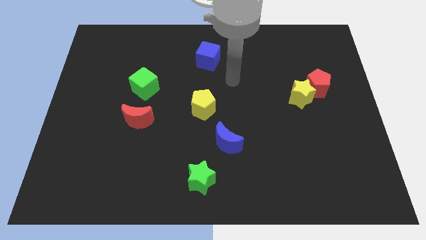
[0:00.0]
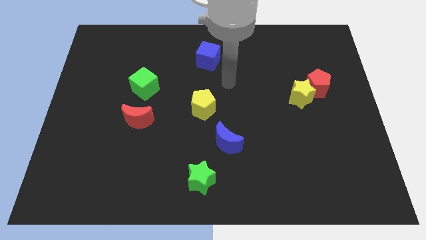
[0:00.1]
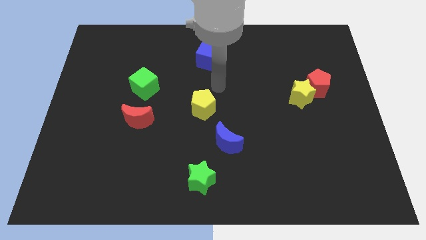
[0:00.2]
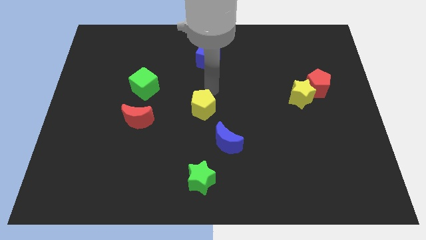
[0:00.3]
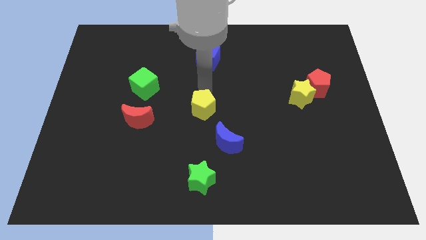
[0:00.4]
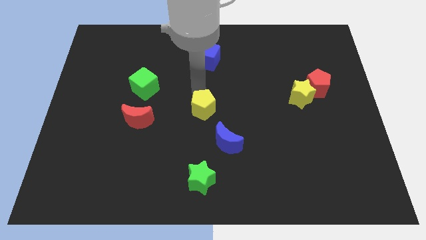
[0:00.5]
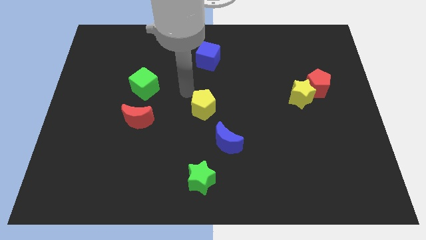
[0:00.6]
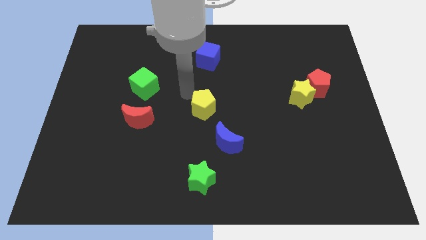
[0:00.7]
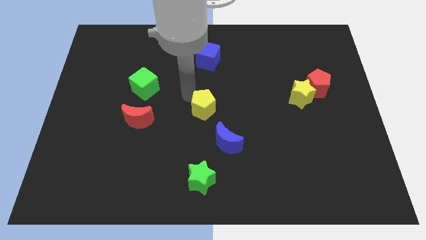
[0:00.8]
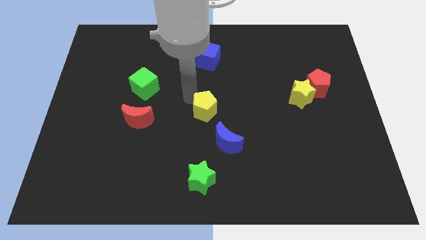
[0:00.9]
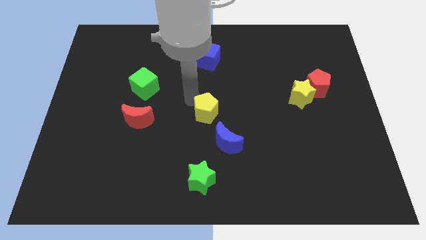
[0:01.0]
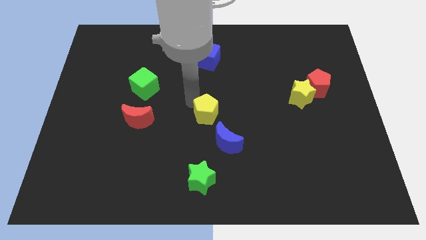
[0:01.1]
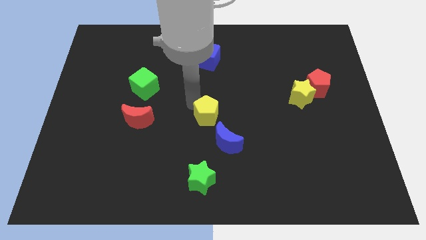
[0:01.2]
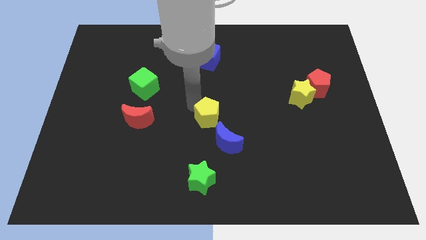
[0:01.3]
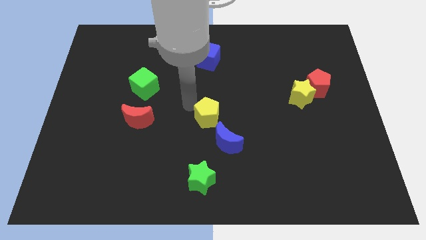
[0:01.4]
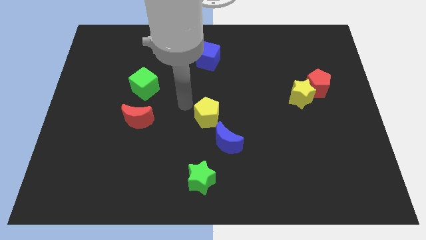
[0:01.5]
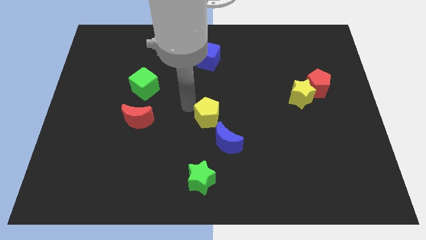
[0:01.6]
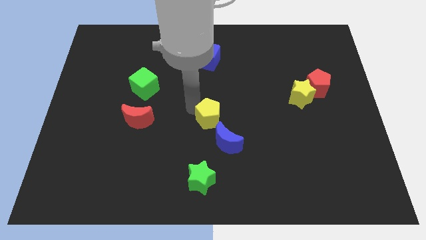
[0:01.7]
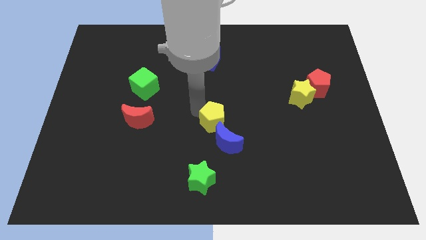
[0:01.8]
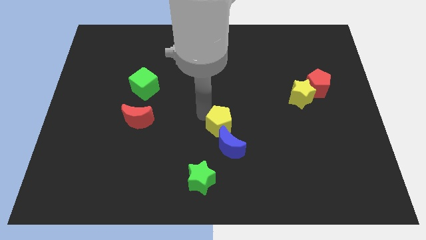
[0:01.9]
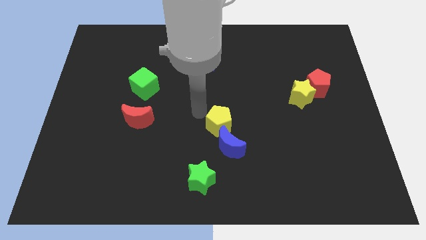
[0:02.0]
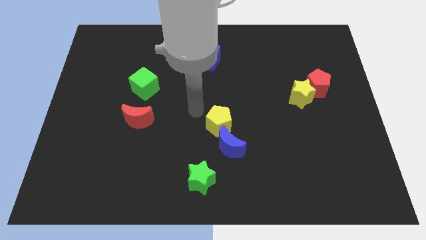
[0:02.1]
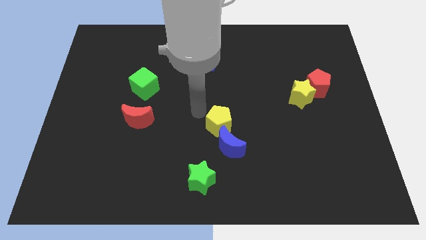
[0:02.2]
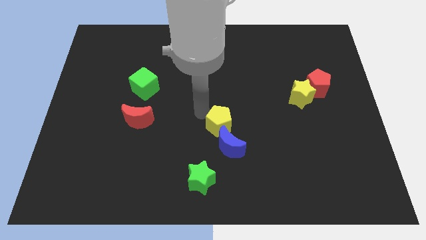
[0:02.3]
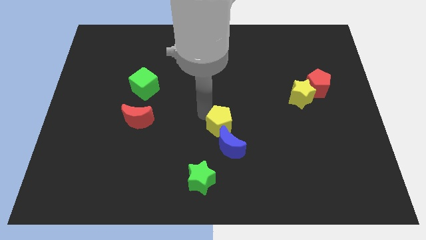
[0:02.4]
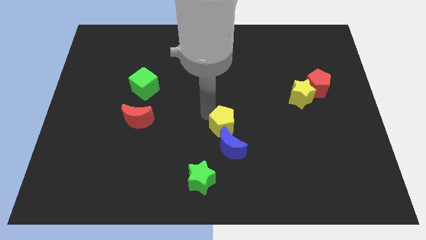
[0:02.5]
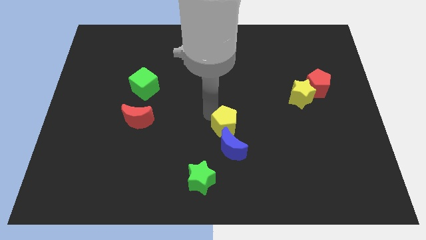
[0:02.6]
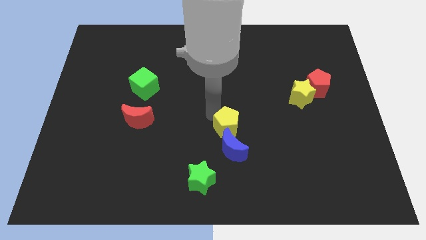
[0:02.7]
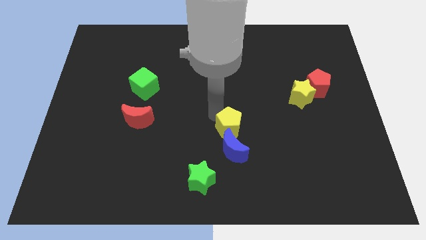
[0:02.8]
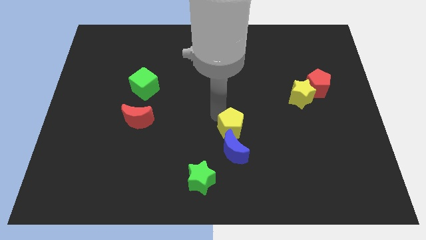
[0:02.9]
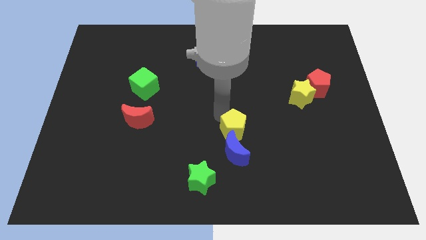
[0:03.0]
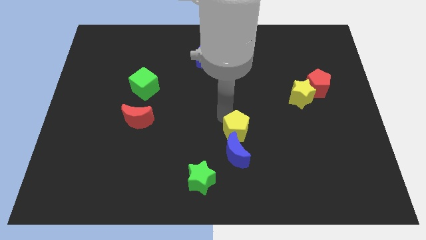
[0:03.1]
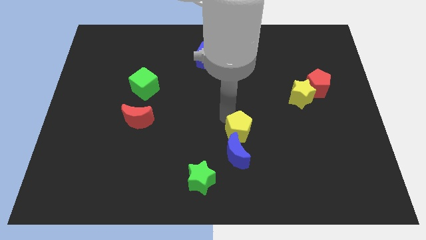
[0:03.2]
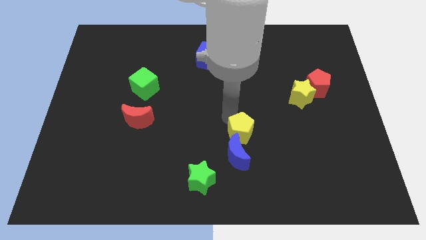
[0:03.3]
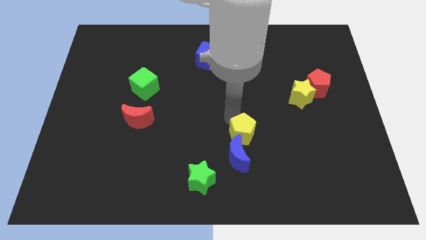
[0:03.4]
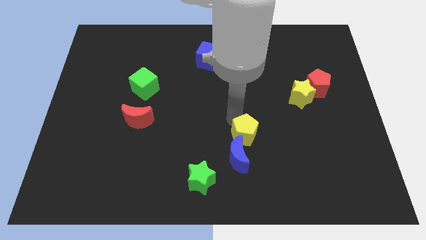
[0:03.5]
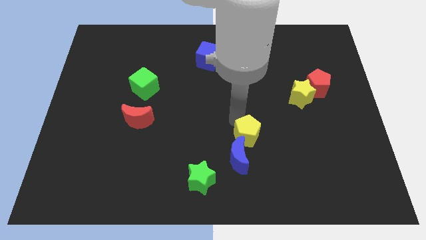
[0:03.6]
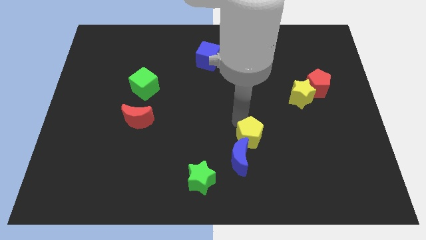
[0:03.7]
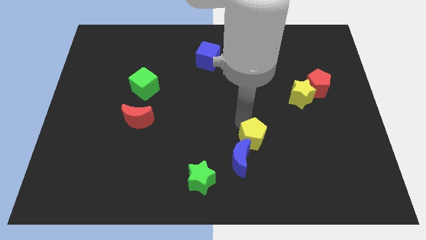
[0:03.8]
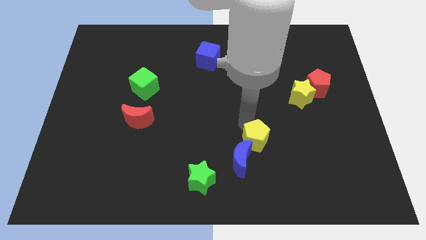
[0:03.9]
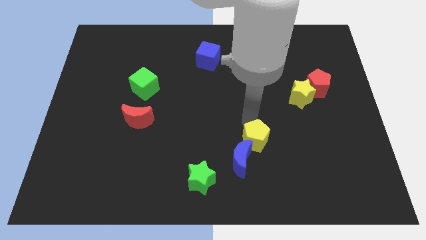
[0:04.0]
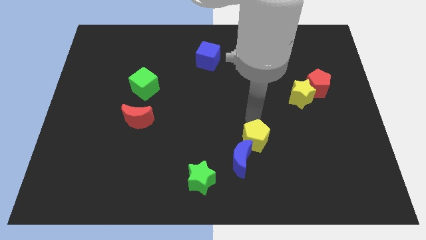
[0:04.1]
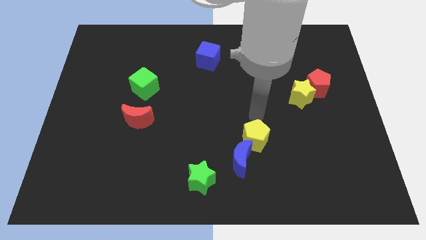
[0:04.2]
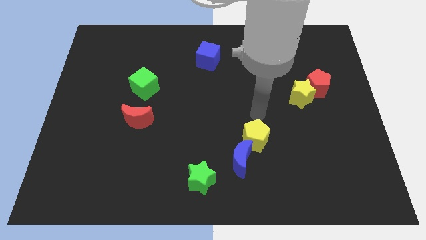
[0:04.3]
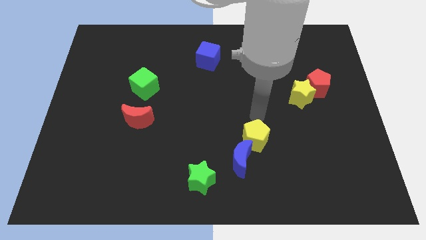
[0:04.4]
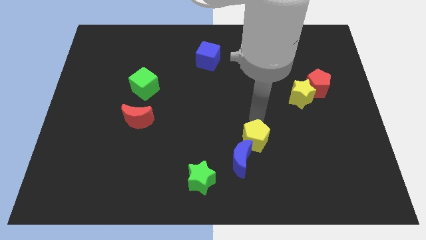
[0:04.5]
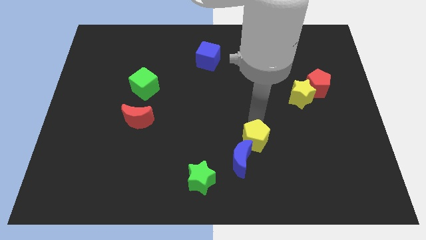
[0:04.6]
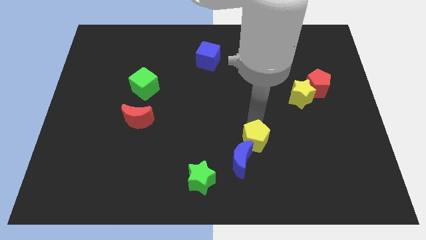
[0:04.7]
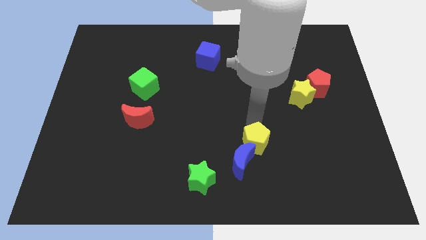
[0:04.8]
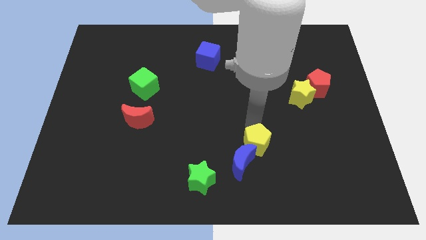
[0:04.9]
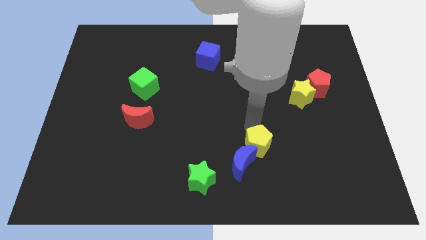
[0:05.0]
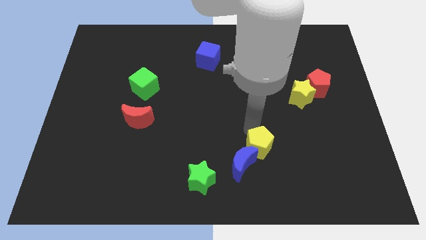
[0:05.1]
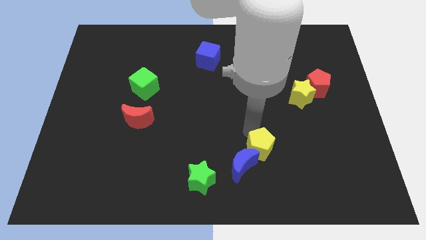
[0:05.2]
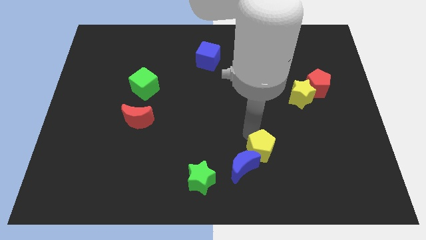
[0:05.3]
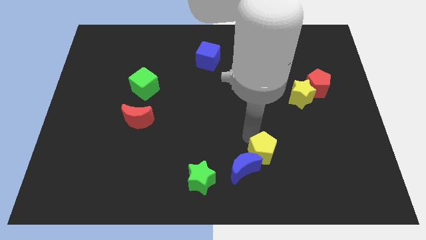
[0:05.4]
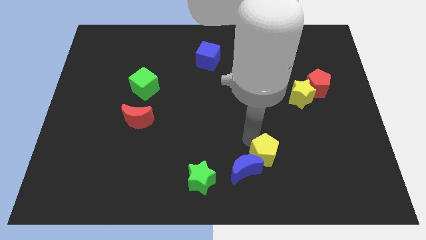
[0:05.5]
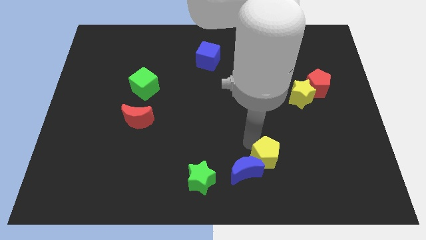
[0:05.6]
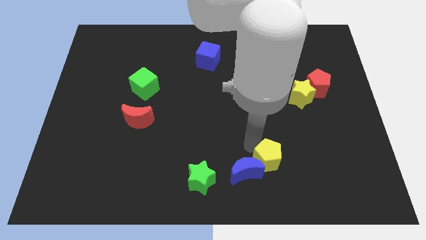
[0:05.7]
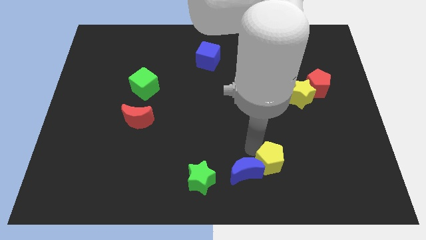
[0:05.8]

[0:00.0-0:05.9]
move the yellow pentagon just right of the green star

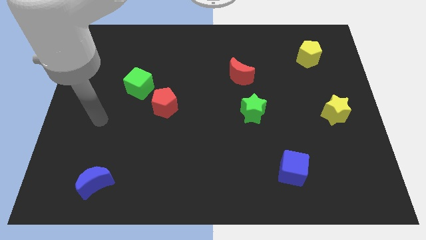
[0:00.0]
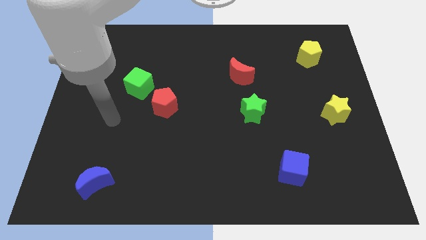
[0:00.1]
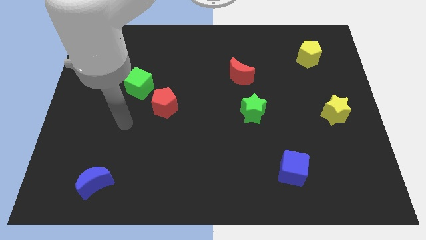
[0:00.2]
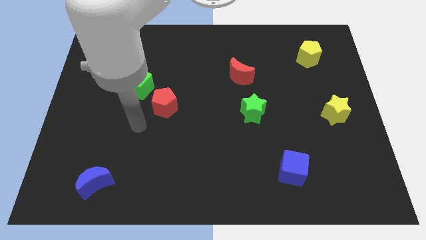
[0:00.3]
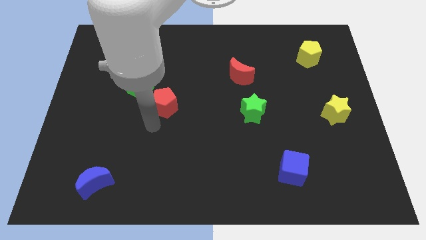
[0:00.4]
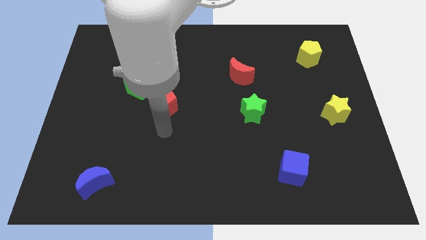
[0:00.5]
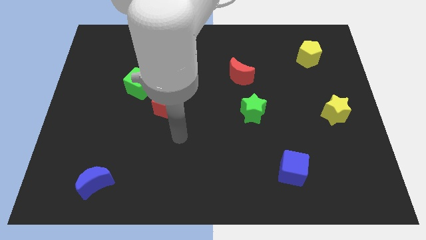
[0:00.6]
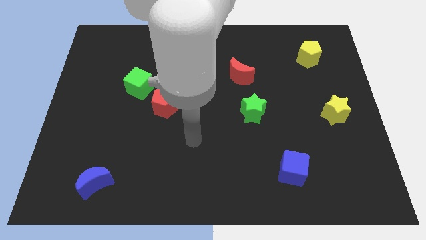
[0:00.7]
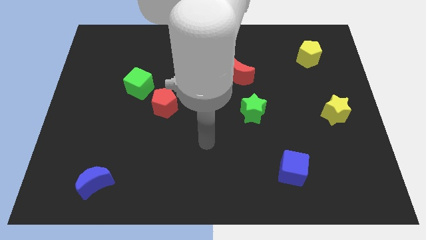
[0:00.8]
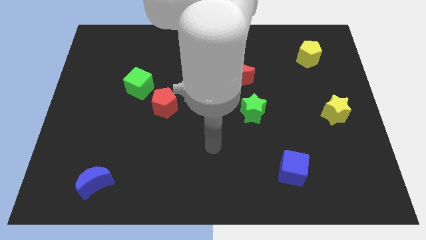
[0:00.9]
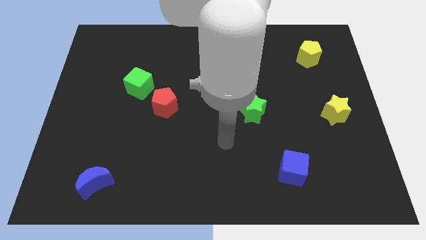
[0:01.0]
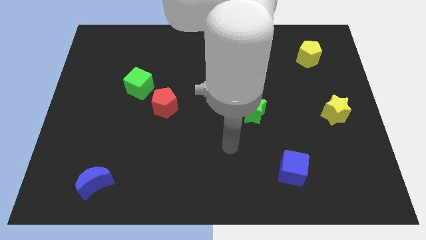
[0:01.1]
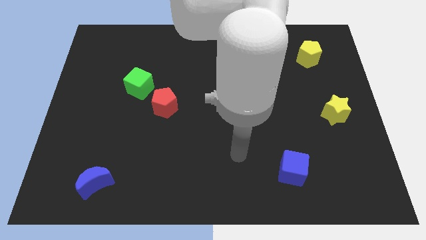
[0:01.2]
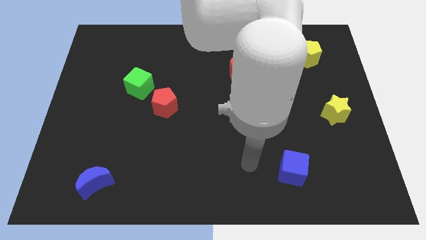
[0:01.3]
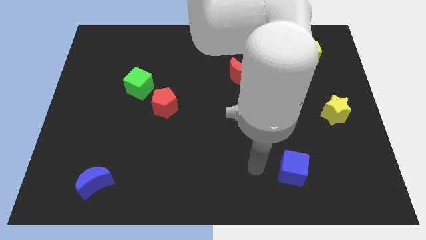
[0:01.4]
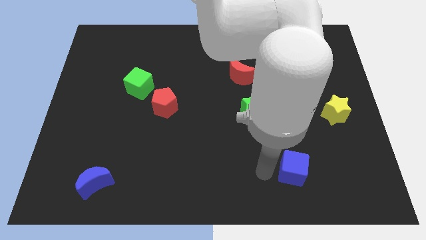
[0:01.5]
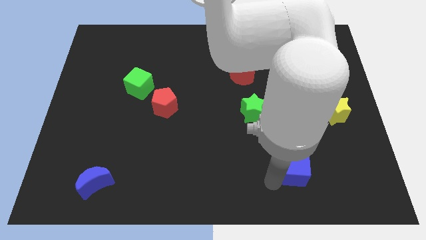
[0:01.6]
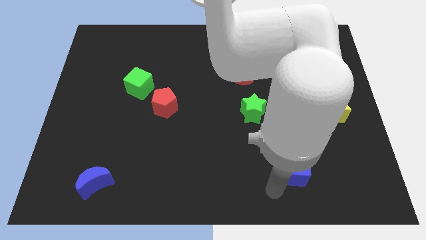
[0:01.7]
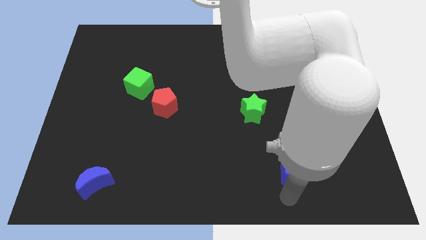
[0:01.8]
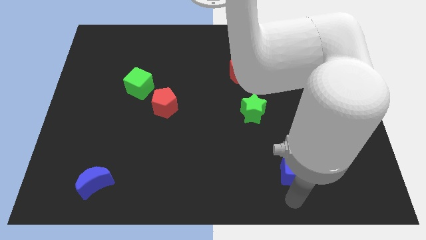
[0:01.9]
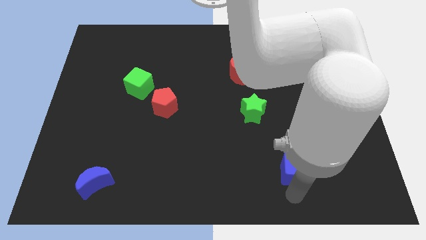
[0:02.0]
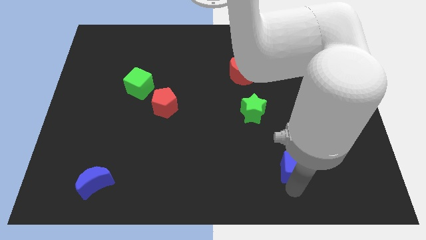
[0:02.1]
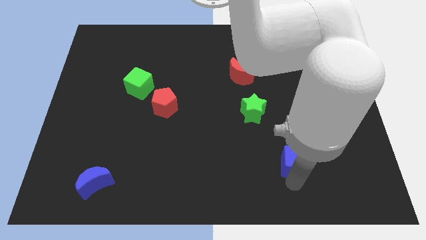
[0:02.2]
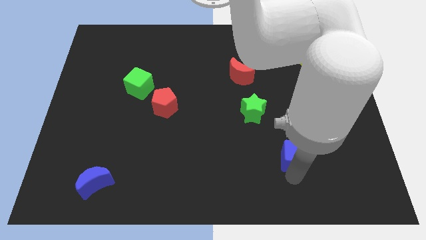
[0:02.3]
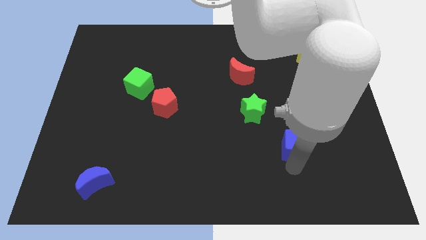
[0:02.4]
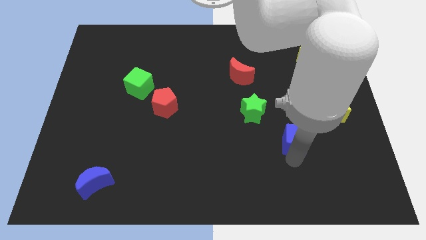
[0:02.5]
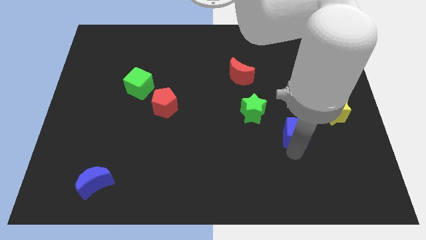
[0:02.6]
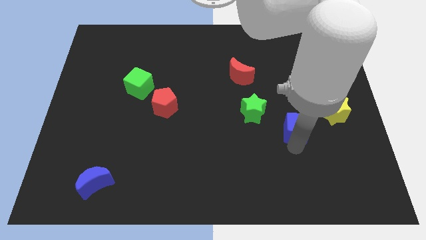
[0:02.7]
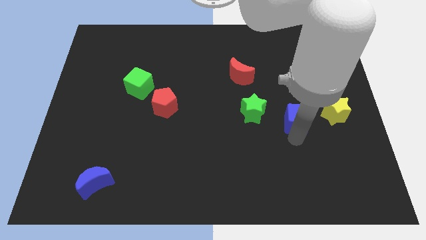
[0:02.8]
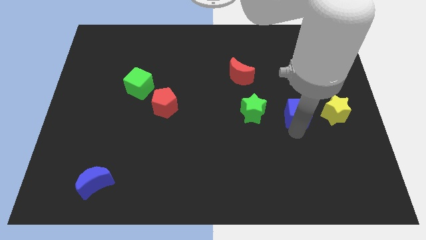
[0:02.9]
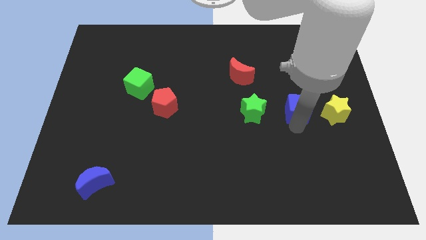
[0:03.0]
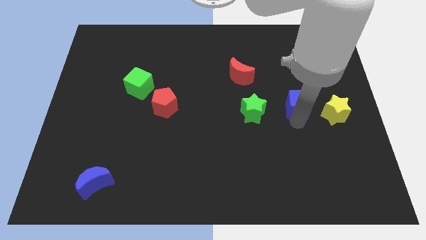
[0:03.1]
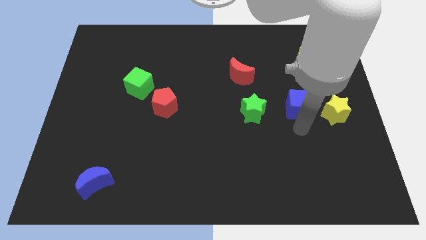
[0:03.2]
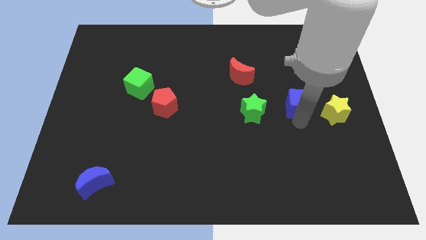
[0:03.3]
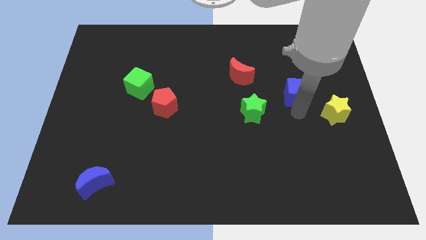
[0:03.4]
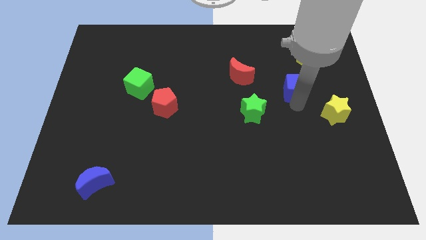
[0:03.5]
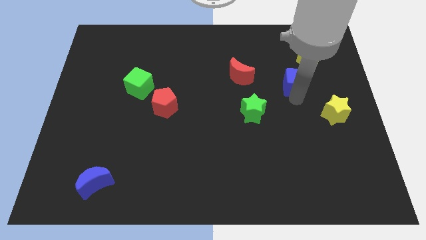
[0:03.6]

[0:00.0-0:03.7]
push the blue cube to the bottom left of the yellow pentagon
